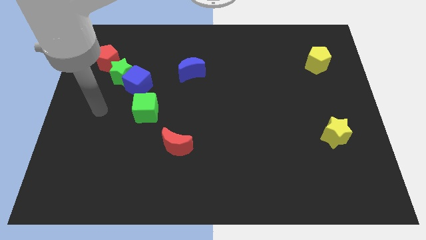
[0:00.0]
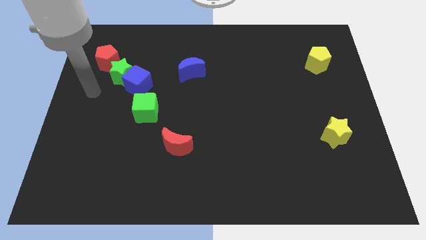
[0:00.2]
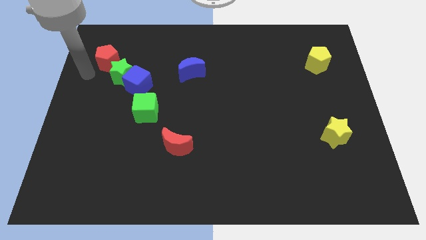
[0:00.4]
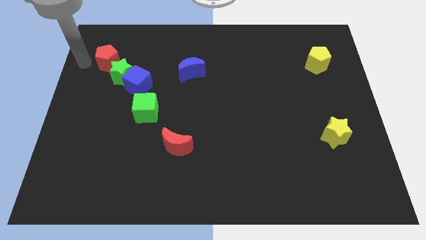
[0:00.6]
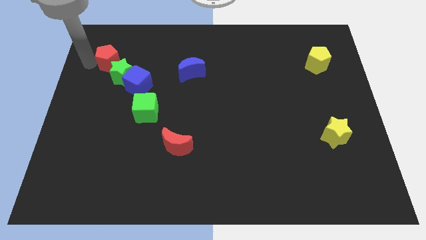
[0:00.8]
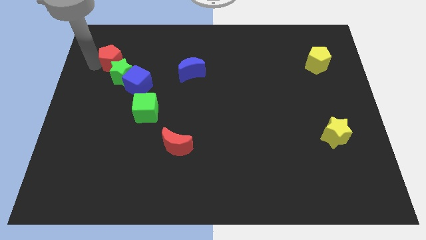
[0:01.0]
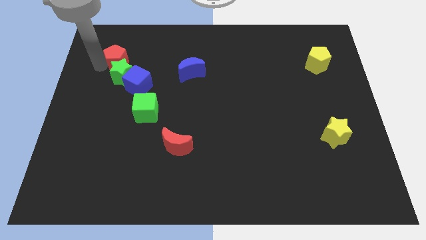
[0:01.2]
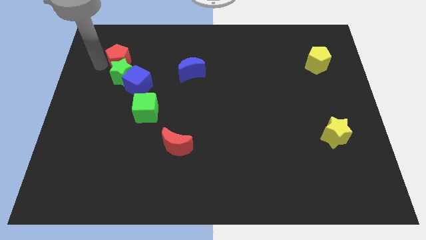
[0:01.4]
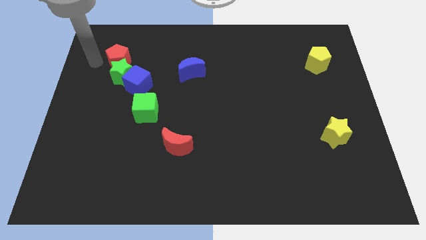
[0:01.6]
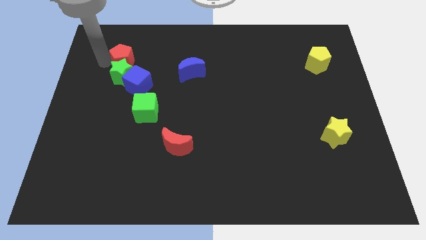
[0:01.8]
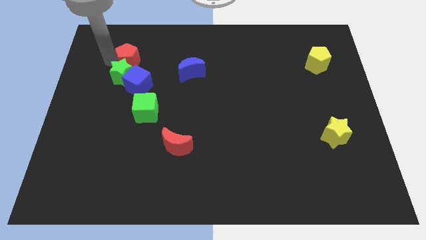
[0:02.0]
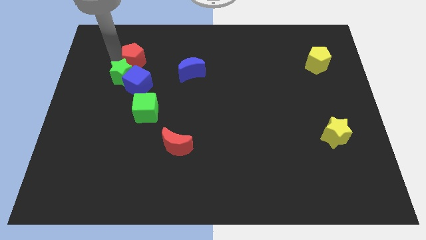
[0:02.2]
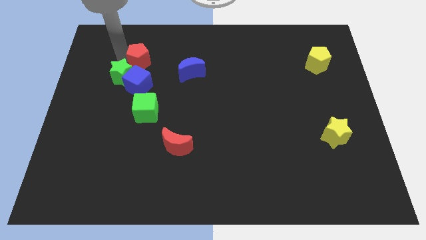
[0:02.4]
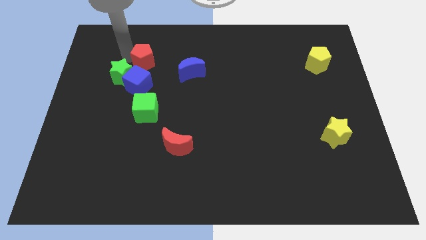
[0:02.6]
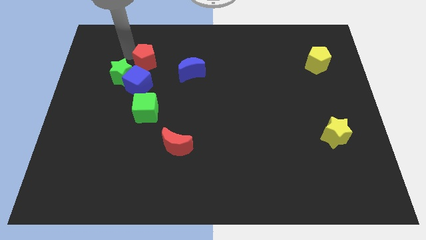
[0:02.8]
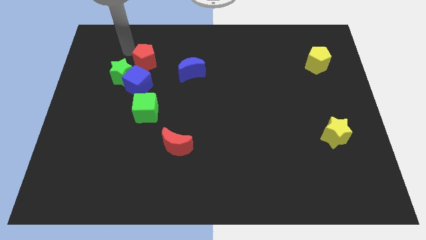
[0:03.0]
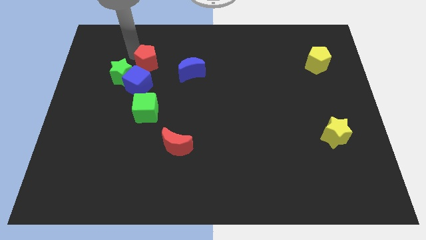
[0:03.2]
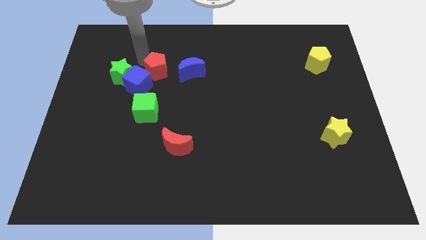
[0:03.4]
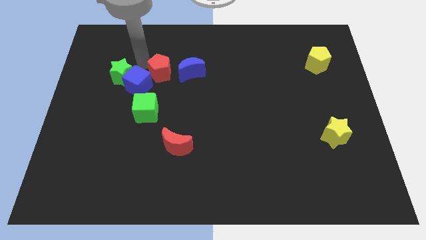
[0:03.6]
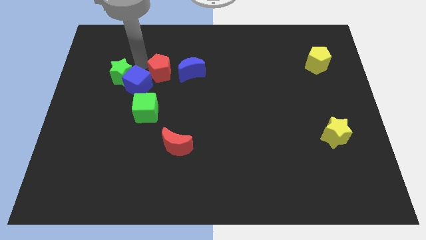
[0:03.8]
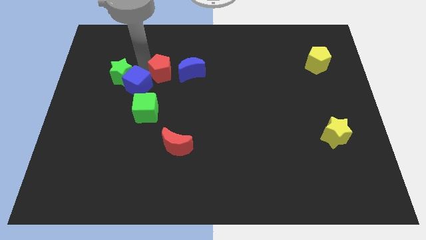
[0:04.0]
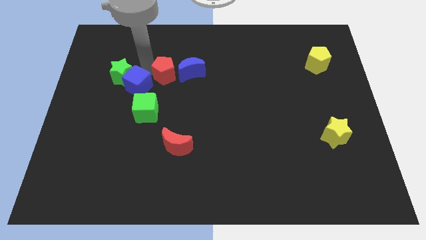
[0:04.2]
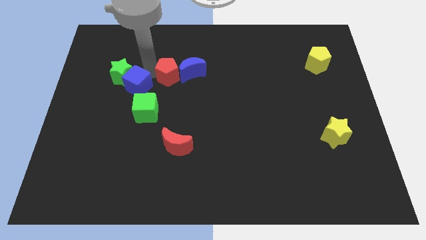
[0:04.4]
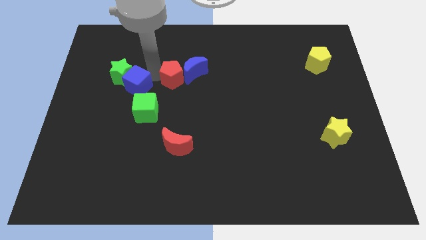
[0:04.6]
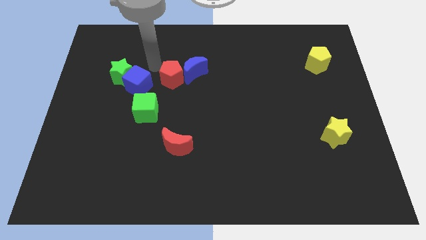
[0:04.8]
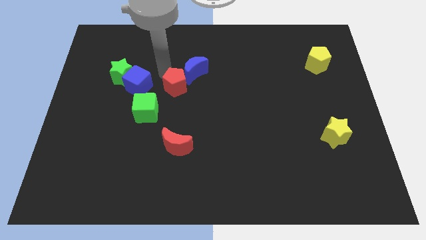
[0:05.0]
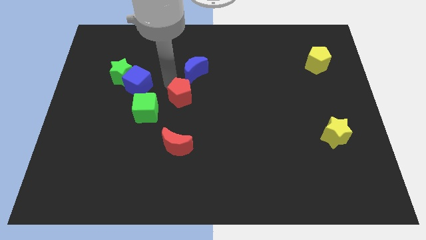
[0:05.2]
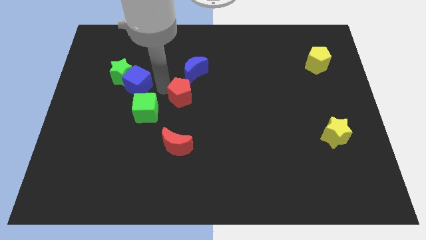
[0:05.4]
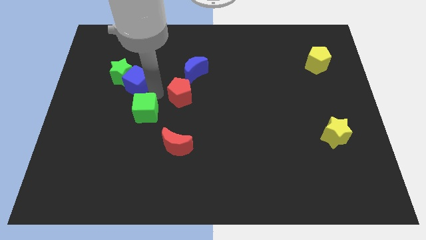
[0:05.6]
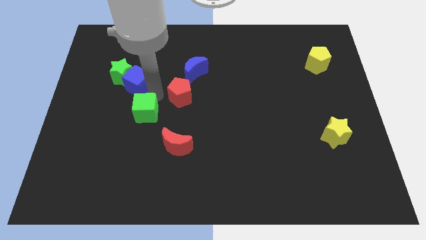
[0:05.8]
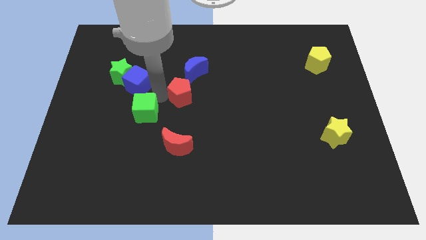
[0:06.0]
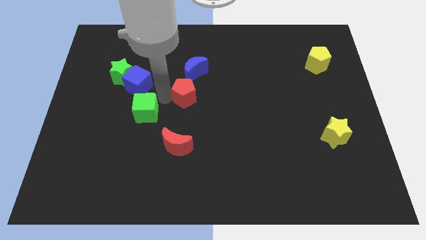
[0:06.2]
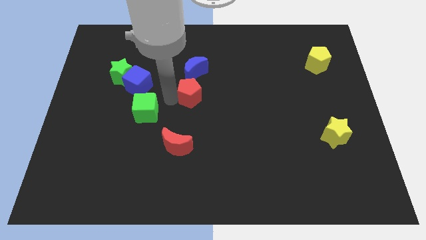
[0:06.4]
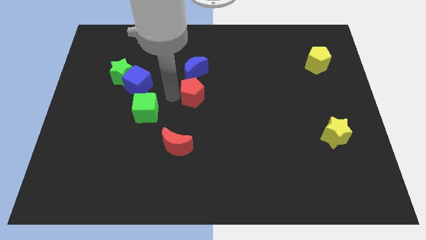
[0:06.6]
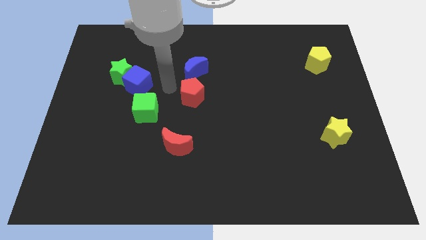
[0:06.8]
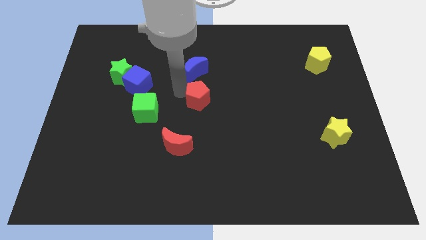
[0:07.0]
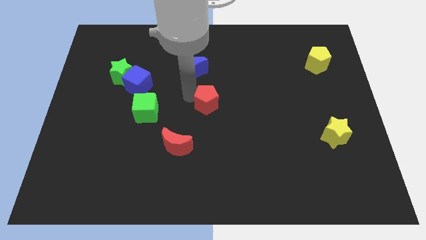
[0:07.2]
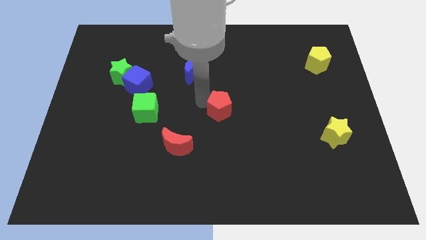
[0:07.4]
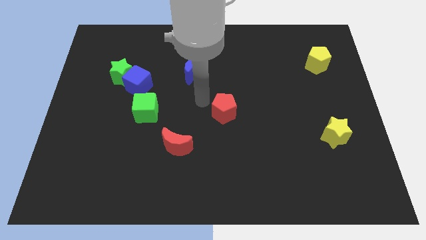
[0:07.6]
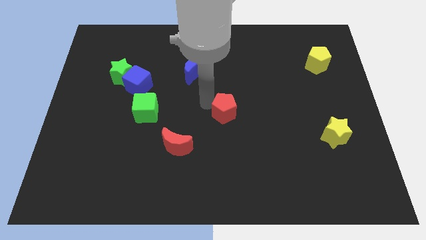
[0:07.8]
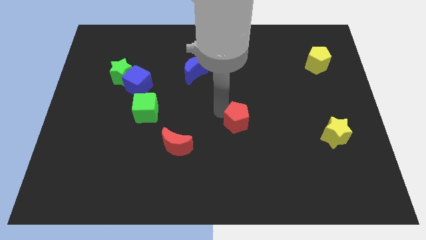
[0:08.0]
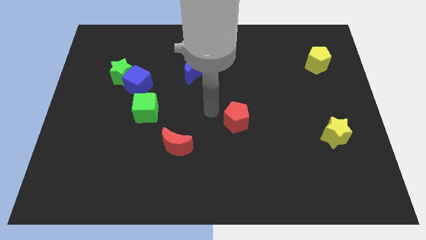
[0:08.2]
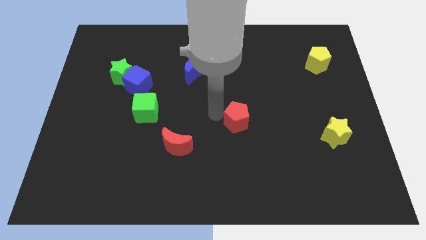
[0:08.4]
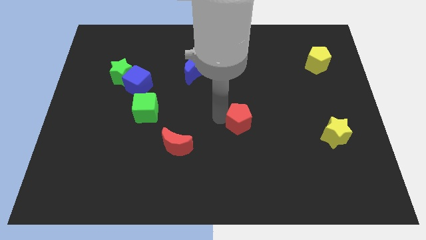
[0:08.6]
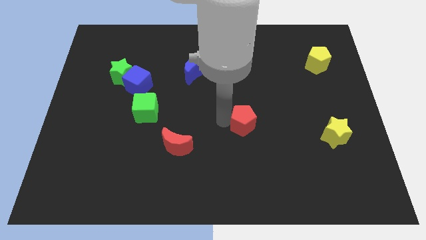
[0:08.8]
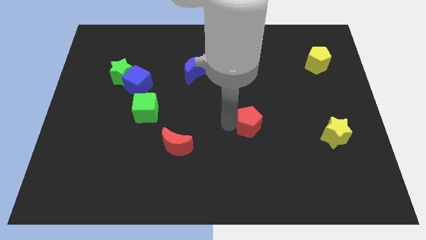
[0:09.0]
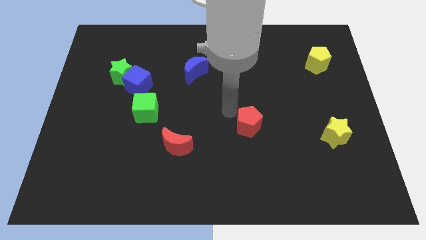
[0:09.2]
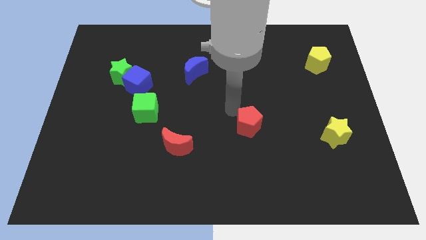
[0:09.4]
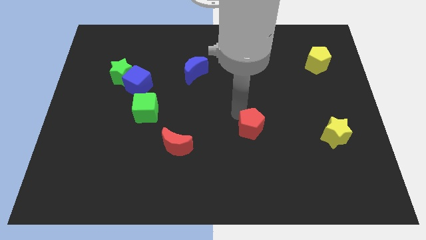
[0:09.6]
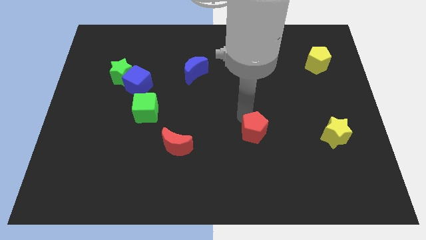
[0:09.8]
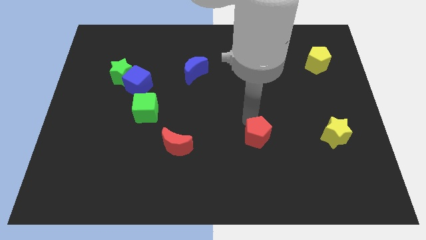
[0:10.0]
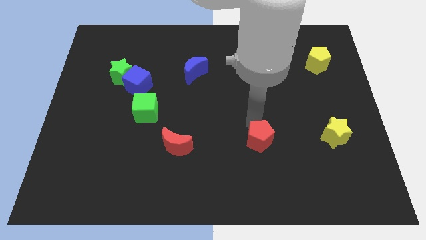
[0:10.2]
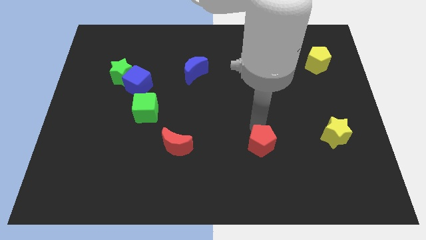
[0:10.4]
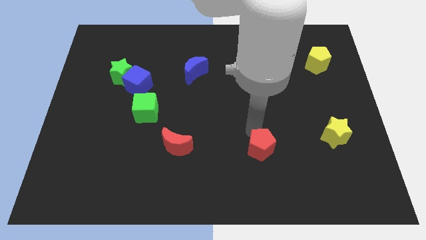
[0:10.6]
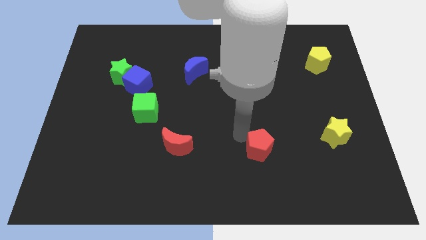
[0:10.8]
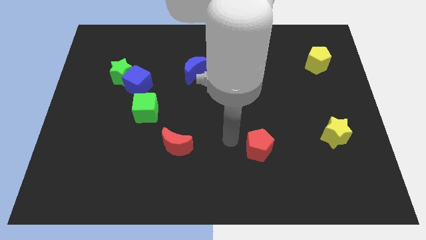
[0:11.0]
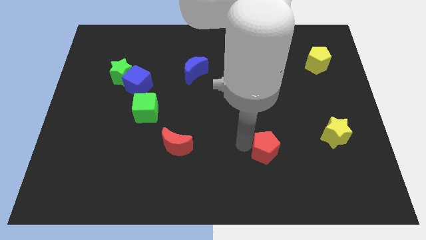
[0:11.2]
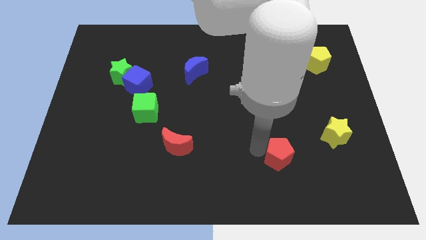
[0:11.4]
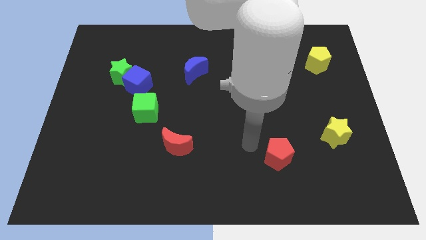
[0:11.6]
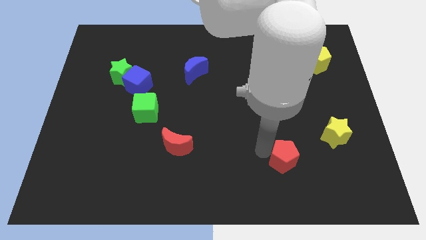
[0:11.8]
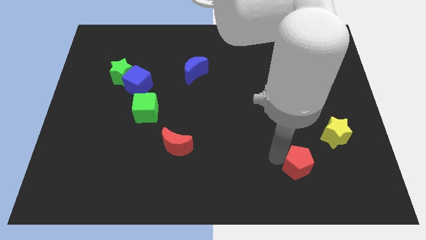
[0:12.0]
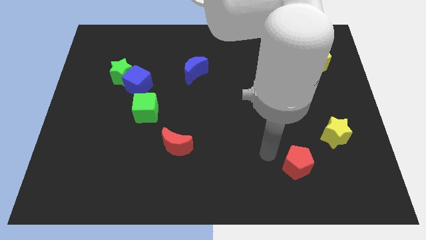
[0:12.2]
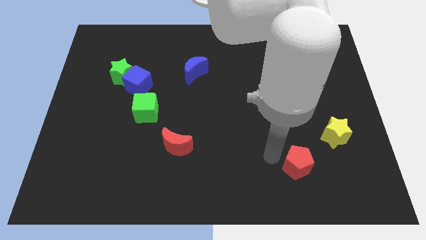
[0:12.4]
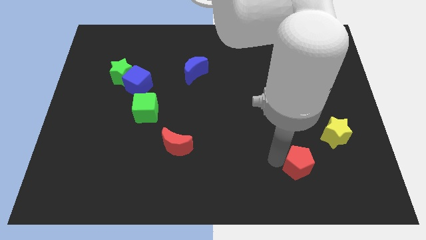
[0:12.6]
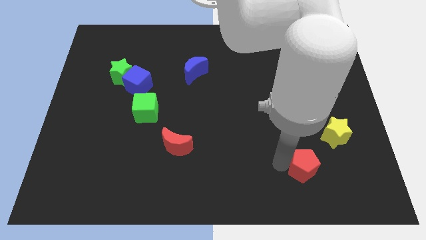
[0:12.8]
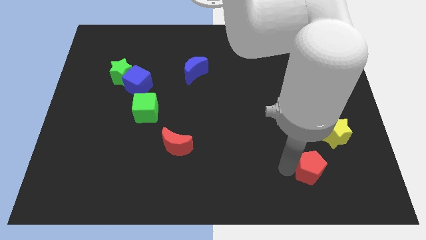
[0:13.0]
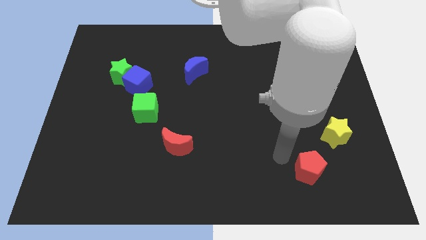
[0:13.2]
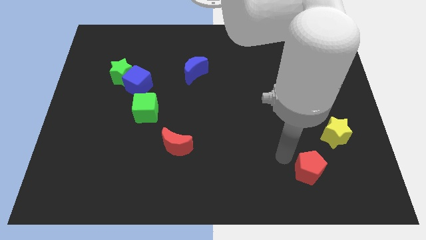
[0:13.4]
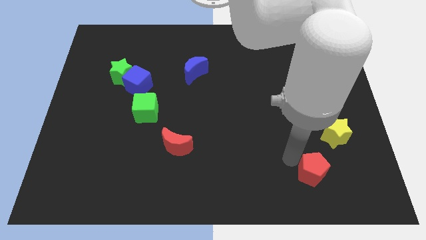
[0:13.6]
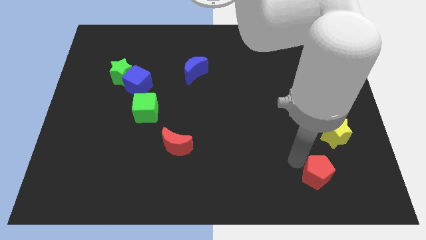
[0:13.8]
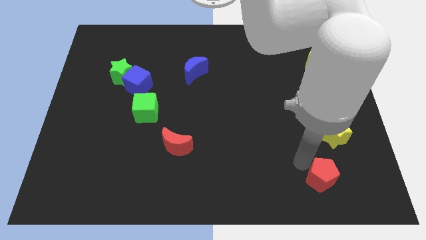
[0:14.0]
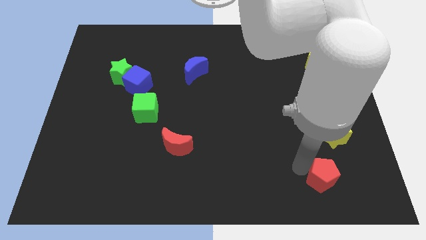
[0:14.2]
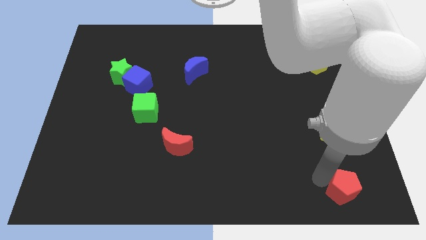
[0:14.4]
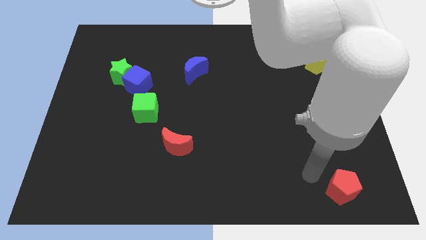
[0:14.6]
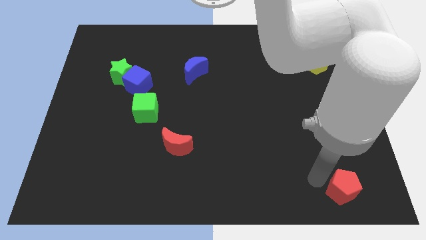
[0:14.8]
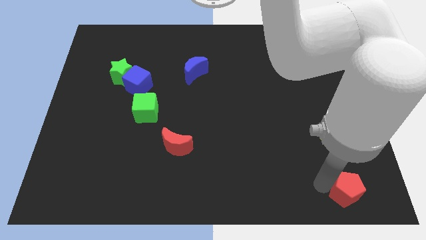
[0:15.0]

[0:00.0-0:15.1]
slide the red pentagon to the lower right corner

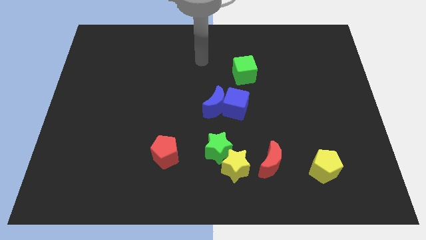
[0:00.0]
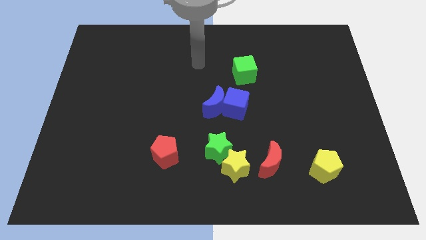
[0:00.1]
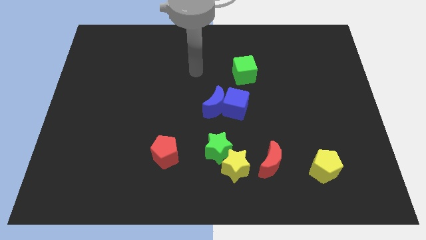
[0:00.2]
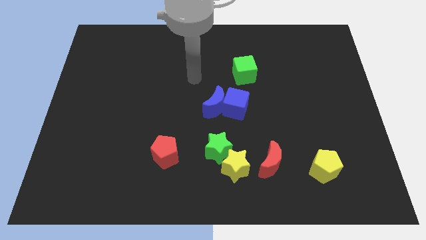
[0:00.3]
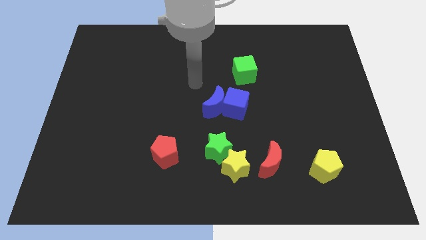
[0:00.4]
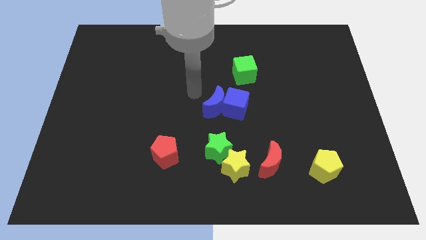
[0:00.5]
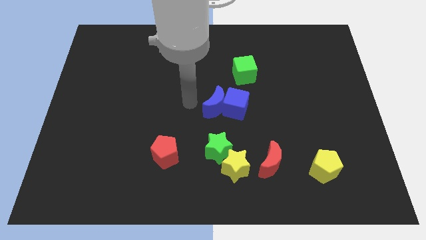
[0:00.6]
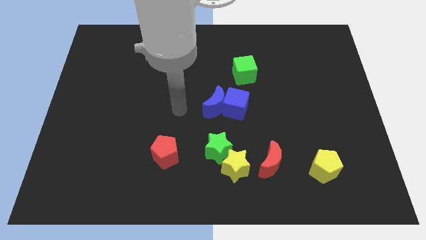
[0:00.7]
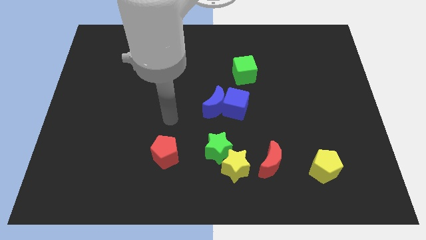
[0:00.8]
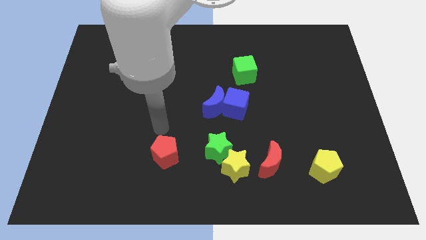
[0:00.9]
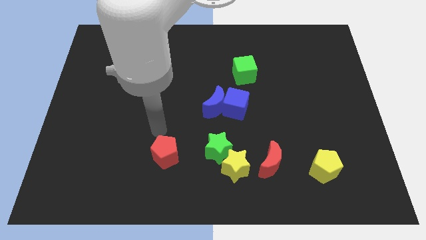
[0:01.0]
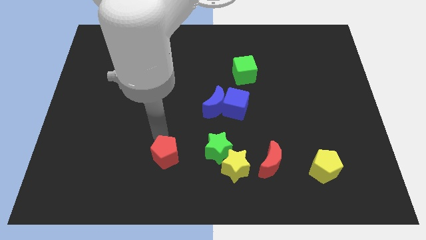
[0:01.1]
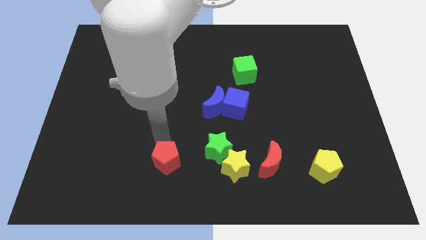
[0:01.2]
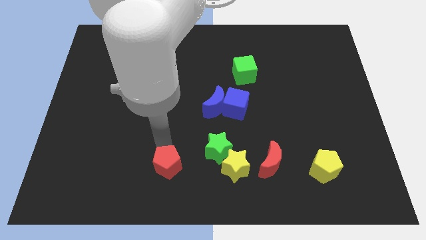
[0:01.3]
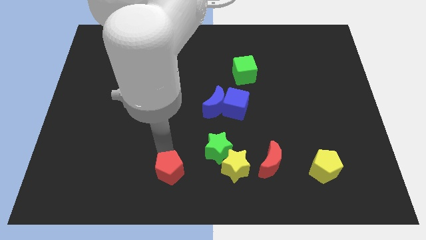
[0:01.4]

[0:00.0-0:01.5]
move the red pentagon to the bottom side
